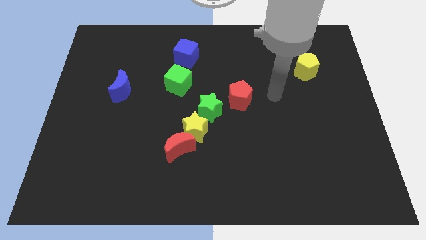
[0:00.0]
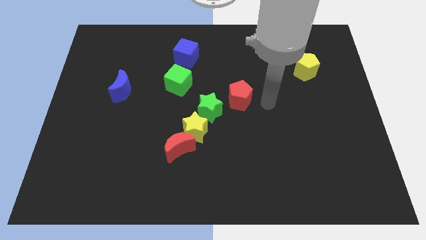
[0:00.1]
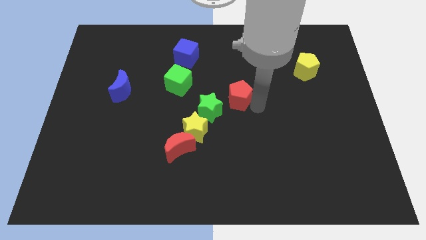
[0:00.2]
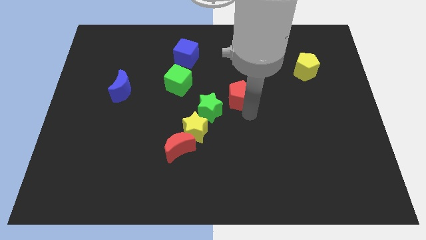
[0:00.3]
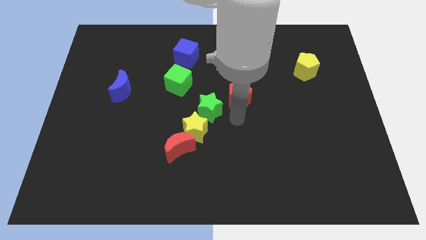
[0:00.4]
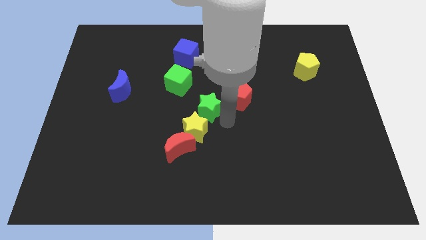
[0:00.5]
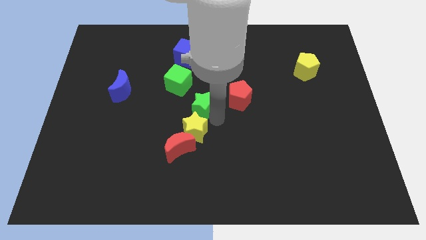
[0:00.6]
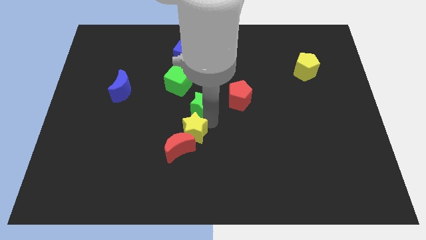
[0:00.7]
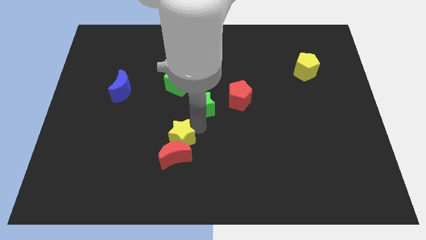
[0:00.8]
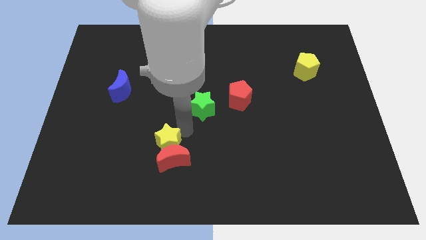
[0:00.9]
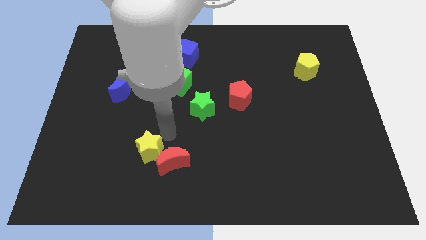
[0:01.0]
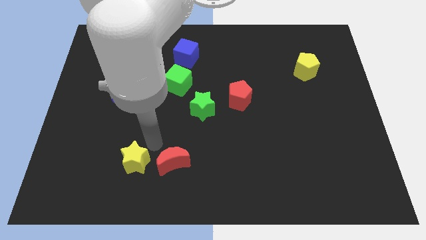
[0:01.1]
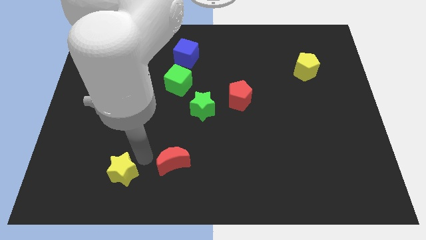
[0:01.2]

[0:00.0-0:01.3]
separate the red moon from the yellow star

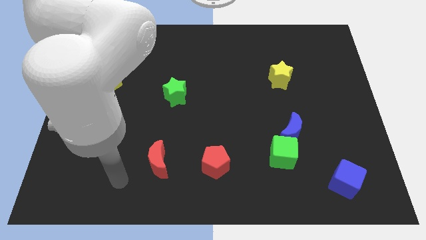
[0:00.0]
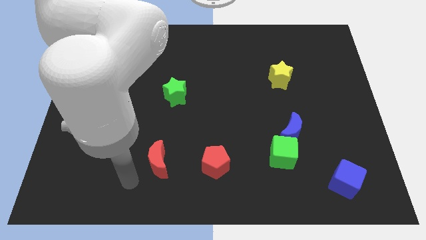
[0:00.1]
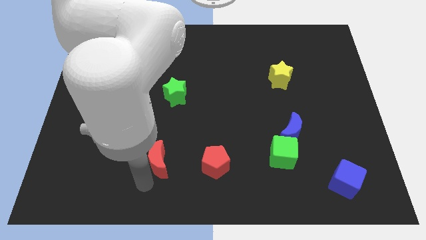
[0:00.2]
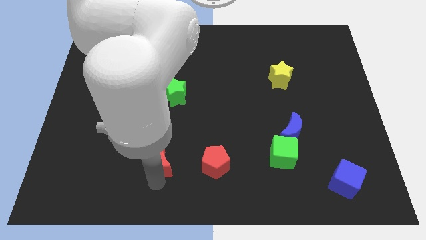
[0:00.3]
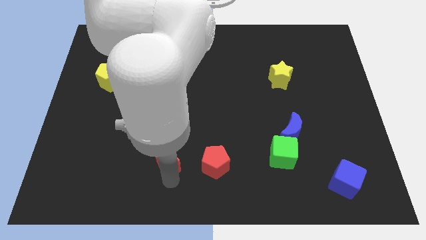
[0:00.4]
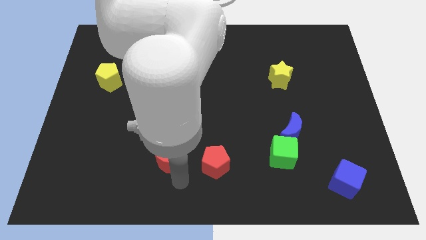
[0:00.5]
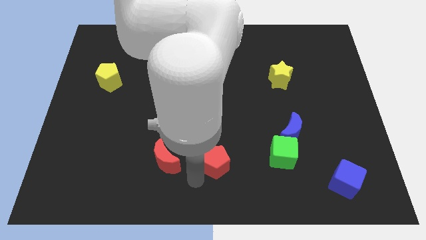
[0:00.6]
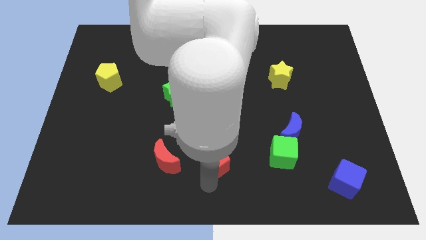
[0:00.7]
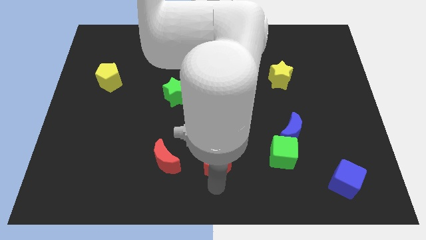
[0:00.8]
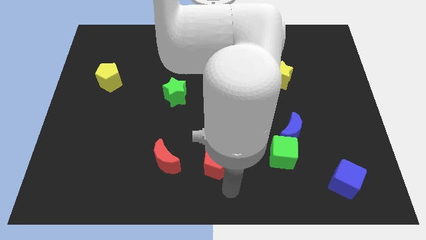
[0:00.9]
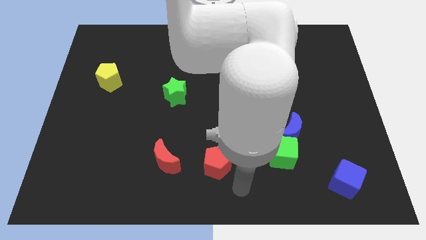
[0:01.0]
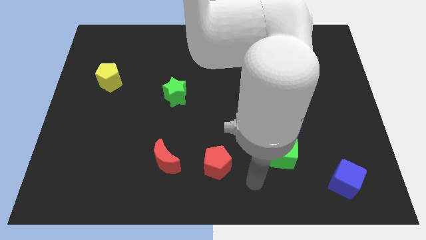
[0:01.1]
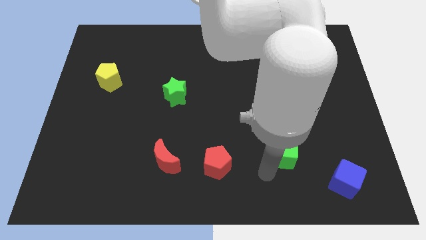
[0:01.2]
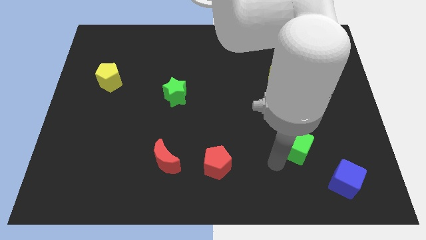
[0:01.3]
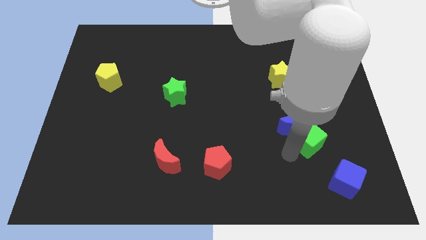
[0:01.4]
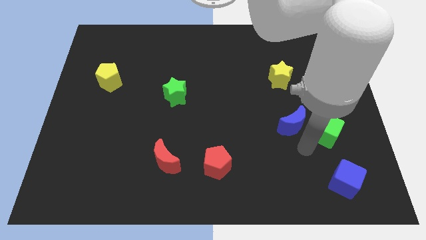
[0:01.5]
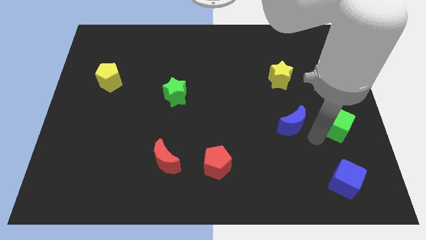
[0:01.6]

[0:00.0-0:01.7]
separate the blue moon from the green cube

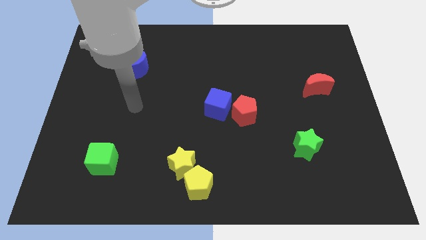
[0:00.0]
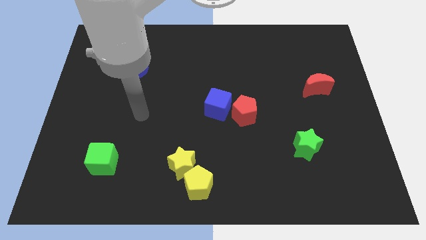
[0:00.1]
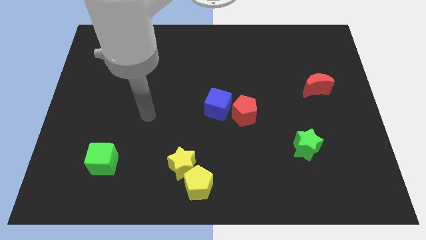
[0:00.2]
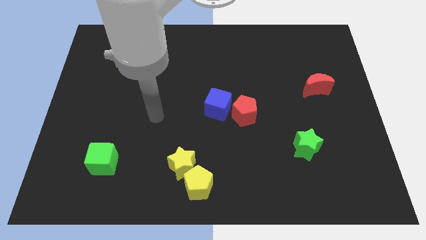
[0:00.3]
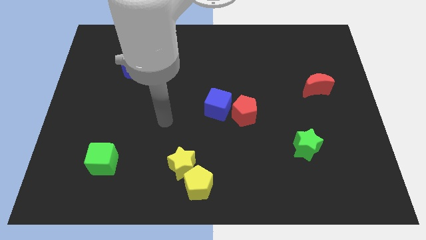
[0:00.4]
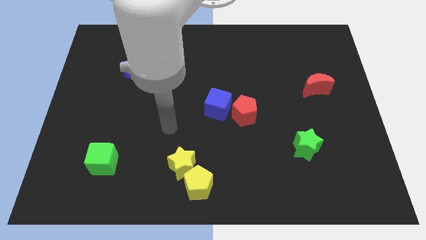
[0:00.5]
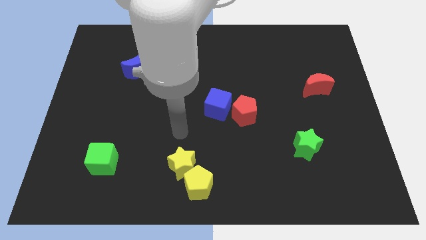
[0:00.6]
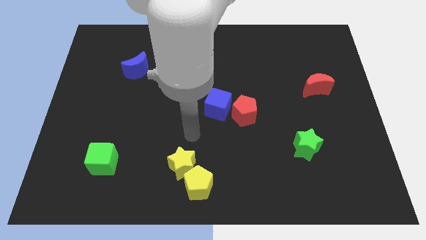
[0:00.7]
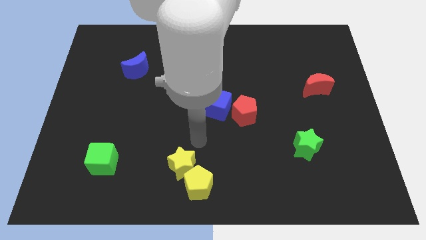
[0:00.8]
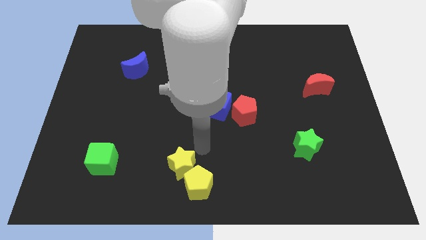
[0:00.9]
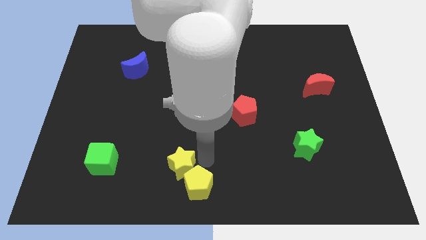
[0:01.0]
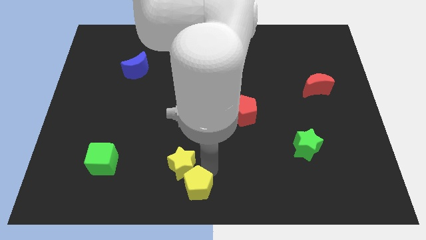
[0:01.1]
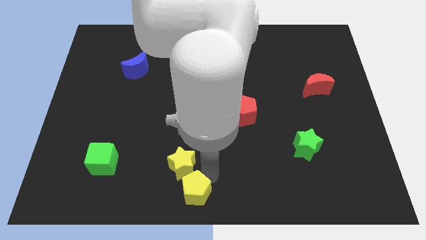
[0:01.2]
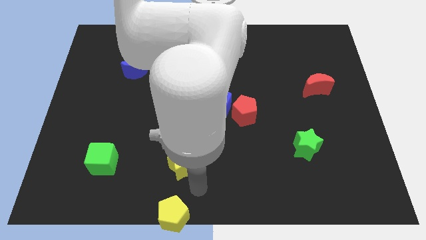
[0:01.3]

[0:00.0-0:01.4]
separate the yellow star from the yellow pentagon

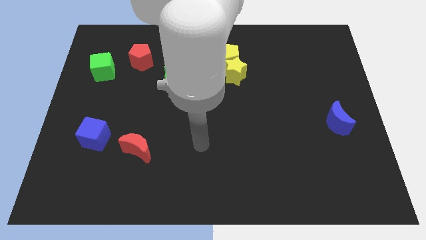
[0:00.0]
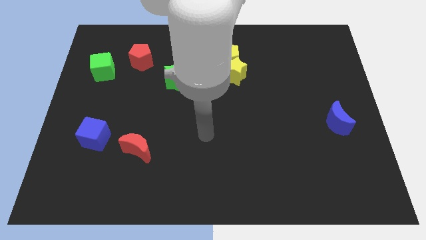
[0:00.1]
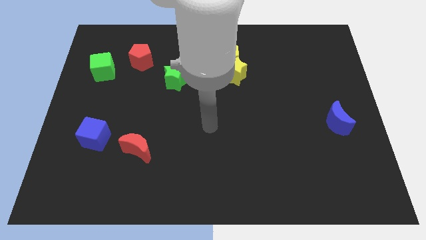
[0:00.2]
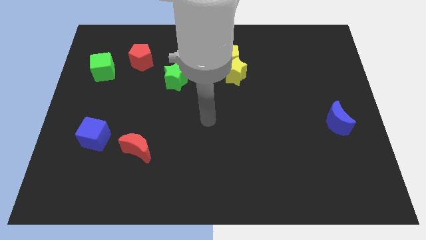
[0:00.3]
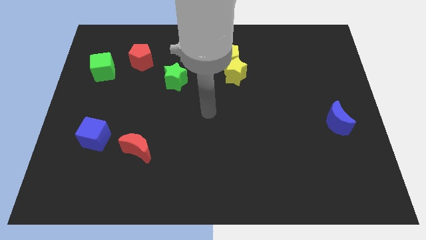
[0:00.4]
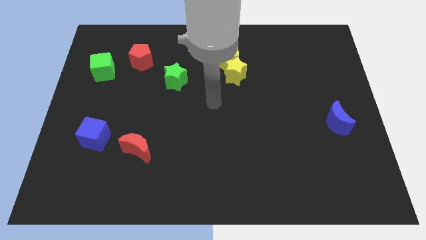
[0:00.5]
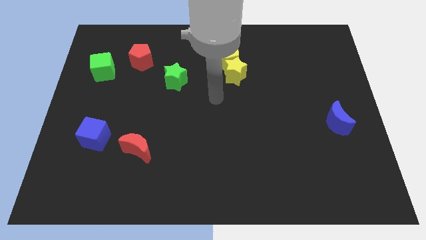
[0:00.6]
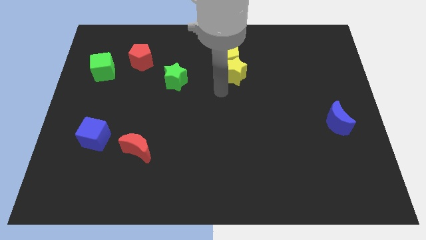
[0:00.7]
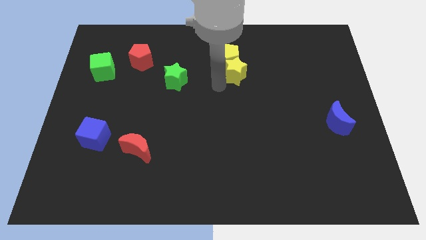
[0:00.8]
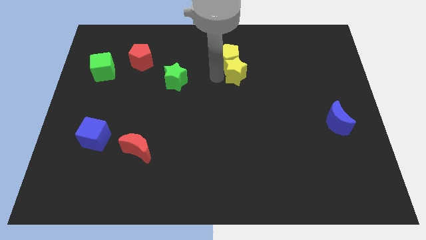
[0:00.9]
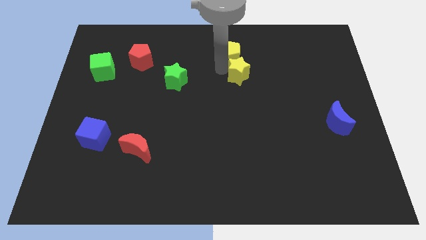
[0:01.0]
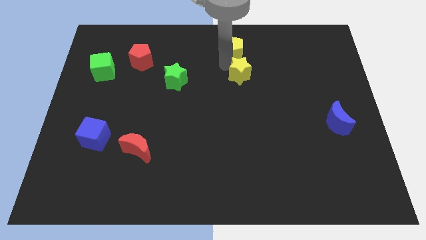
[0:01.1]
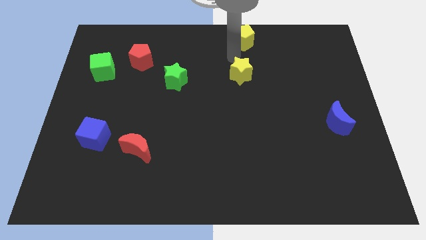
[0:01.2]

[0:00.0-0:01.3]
move the yellow star away from the yellow pentagon

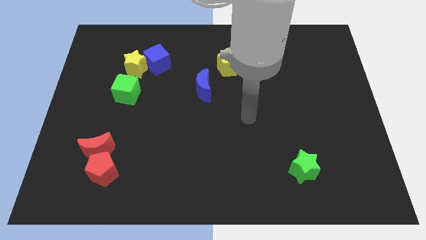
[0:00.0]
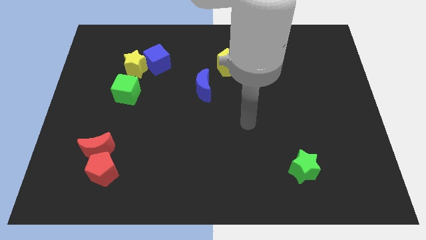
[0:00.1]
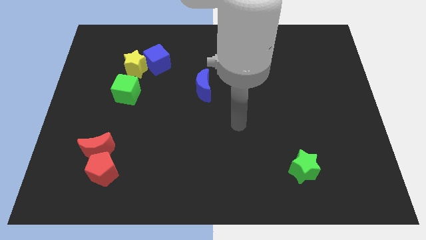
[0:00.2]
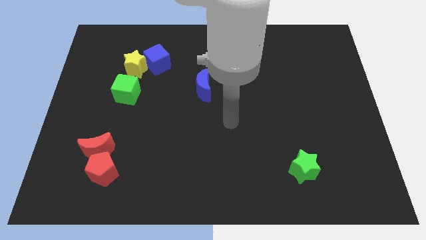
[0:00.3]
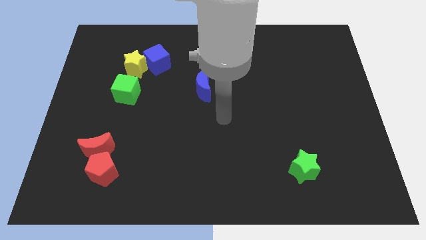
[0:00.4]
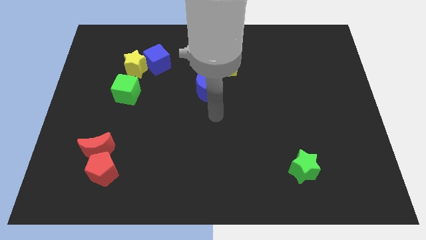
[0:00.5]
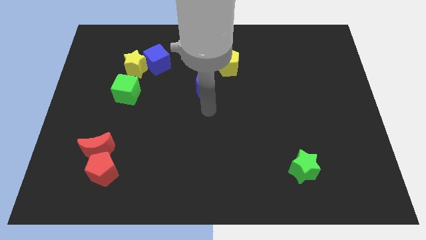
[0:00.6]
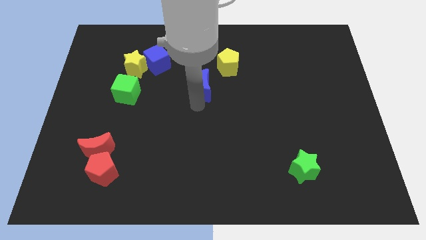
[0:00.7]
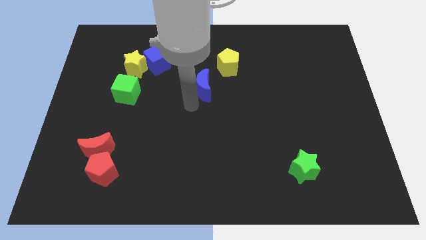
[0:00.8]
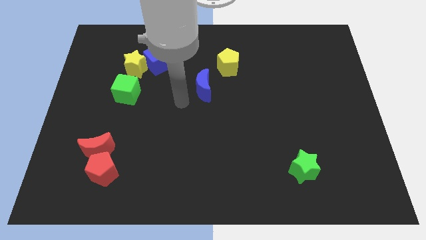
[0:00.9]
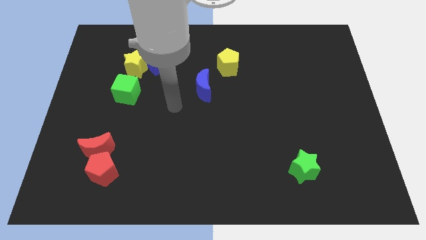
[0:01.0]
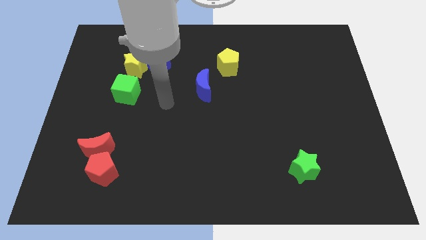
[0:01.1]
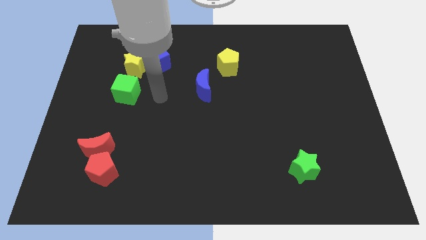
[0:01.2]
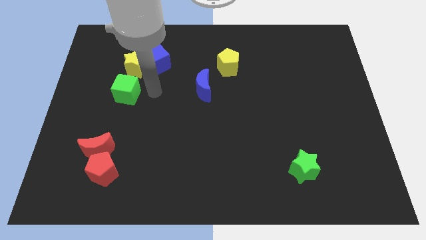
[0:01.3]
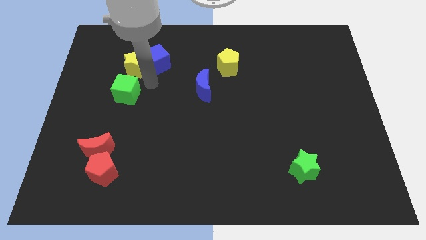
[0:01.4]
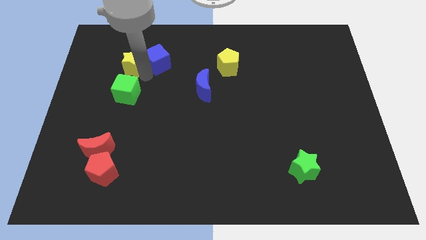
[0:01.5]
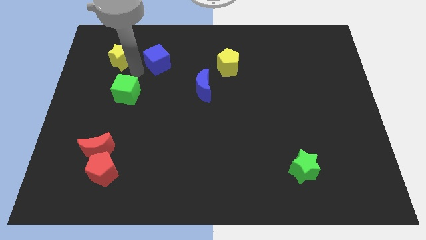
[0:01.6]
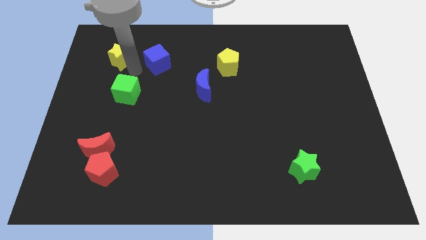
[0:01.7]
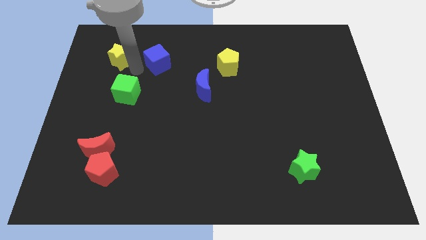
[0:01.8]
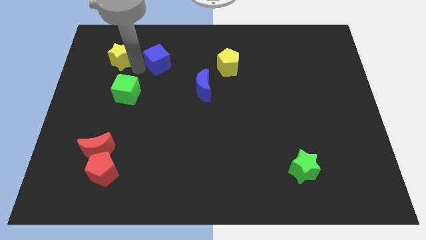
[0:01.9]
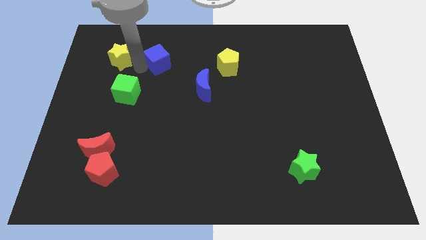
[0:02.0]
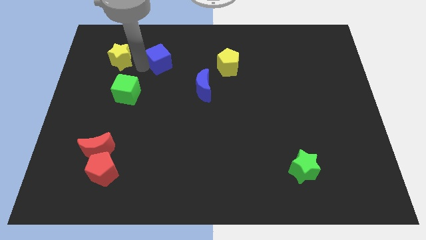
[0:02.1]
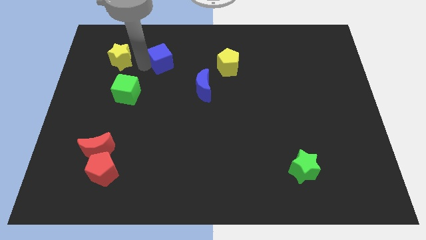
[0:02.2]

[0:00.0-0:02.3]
pull the blue cube apart from the yellow star

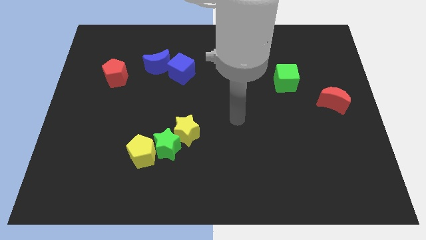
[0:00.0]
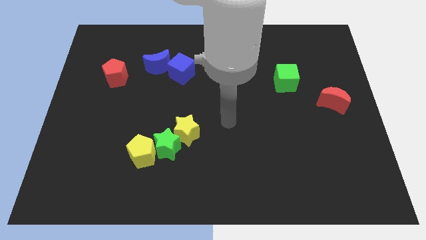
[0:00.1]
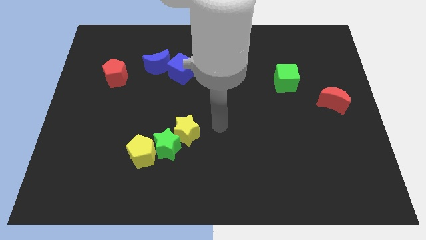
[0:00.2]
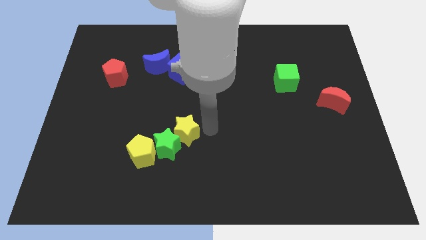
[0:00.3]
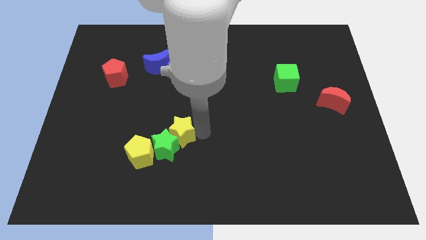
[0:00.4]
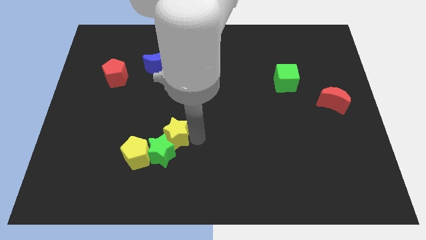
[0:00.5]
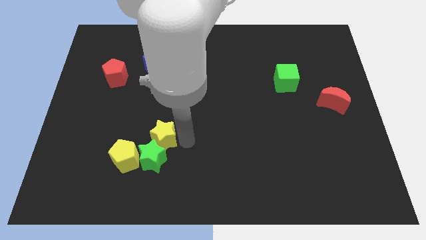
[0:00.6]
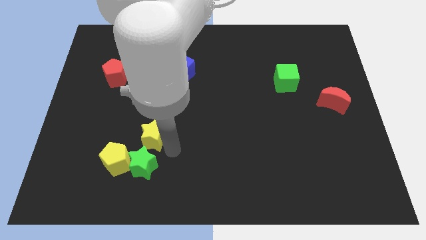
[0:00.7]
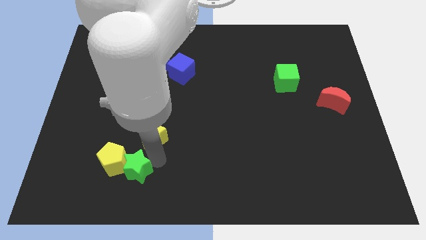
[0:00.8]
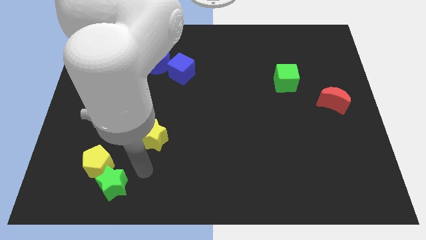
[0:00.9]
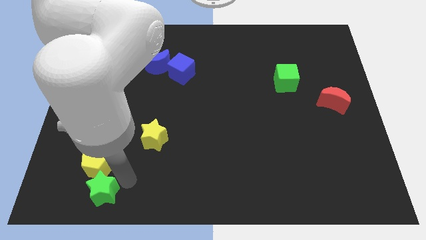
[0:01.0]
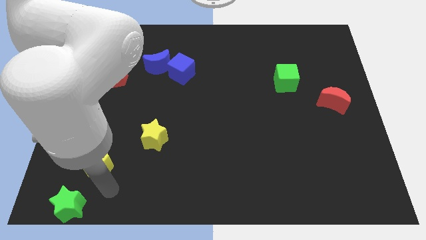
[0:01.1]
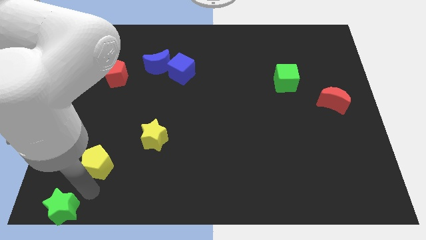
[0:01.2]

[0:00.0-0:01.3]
pull the yellow pentagon apart from the green star

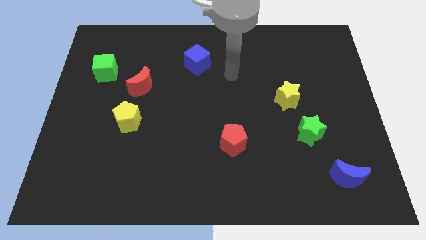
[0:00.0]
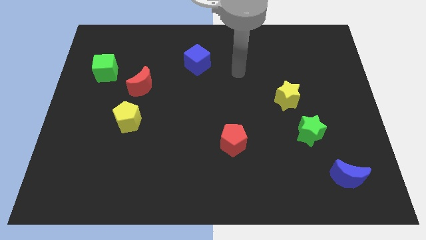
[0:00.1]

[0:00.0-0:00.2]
pull the green star apart from the yellow star
